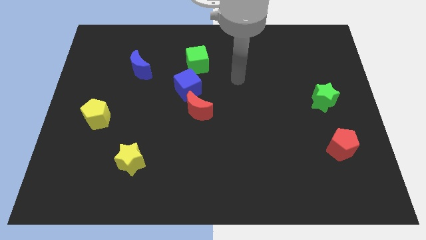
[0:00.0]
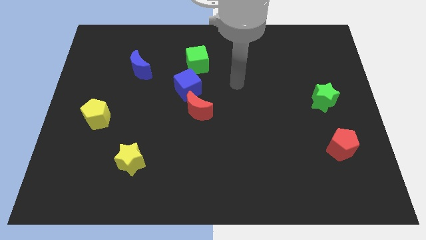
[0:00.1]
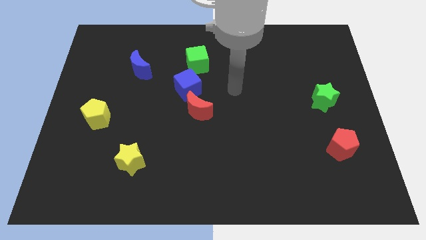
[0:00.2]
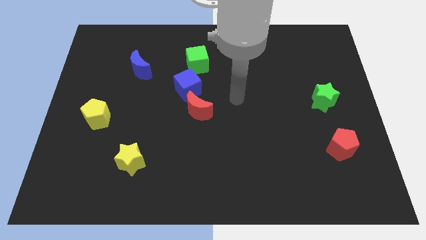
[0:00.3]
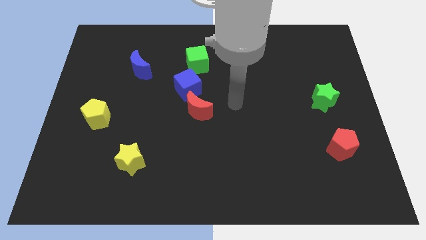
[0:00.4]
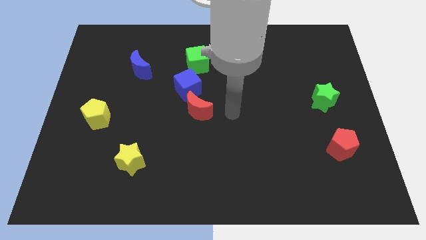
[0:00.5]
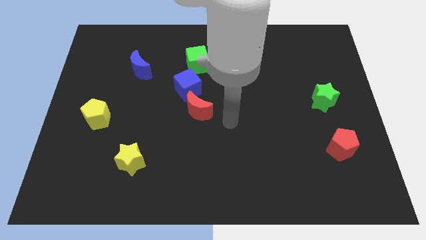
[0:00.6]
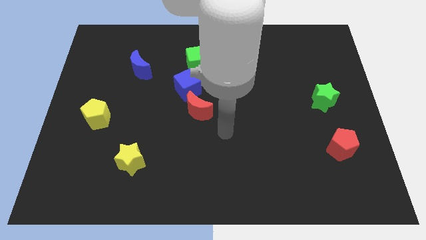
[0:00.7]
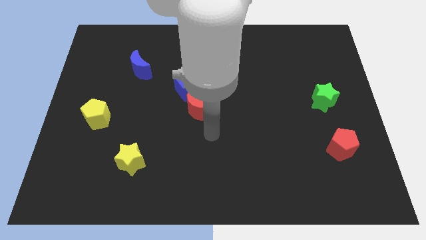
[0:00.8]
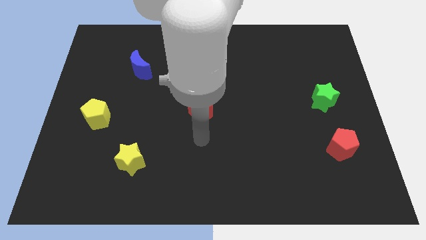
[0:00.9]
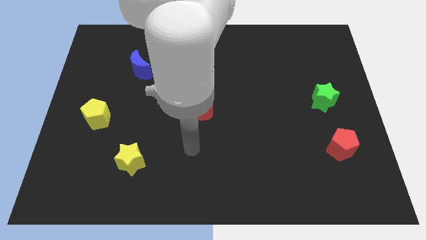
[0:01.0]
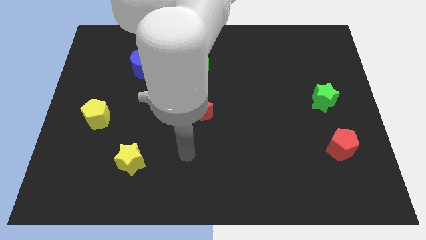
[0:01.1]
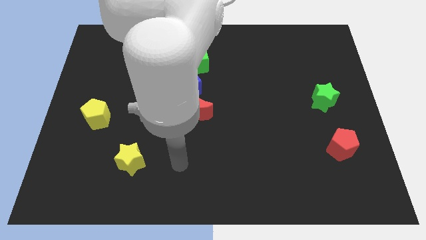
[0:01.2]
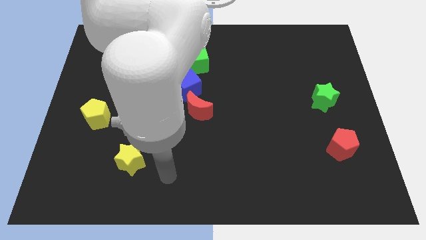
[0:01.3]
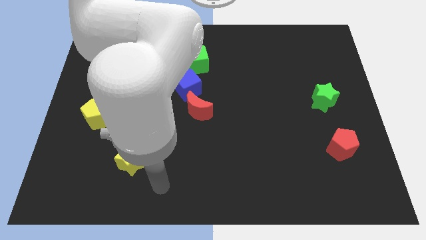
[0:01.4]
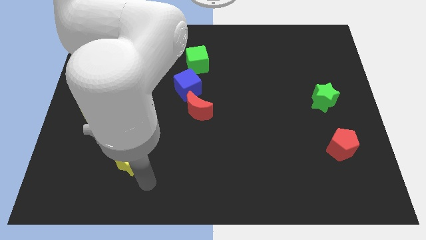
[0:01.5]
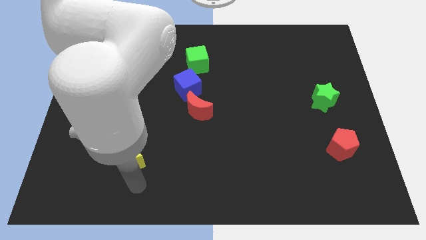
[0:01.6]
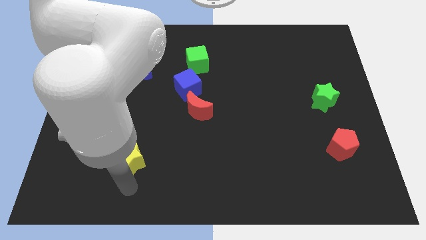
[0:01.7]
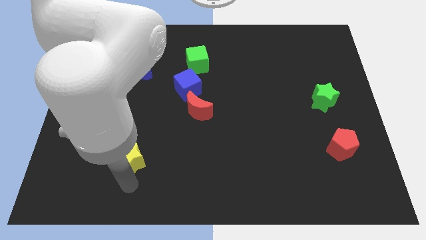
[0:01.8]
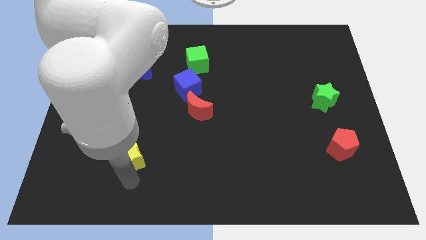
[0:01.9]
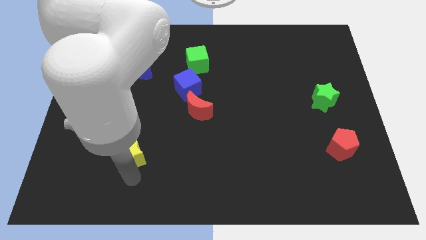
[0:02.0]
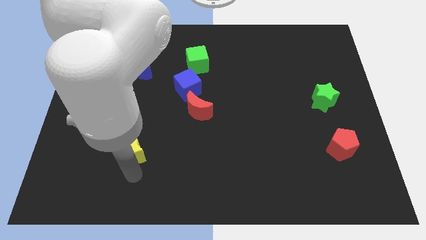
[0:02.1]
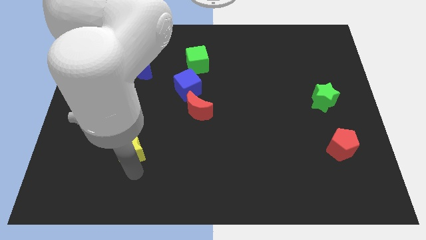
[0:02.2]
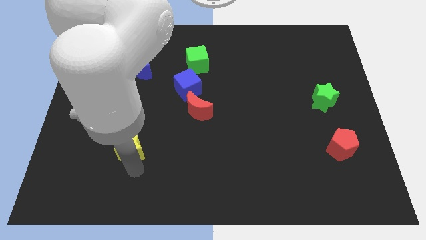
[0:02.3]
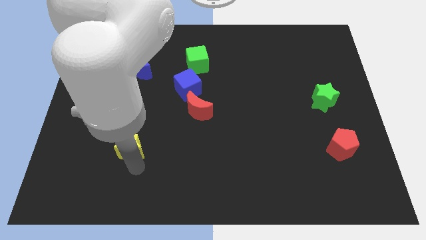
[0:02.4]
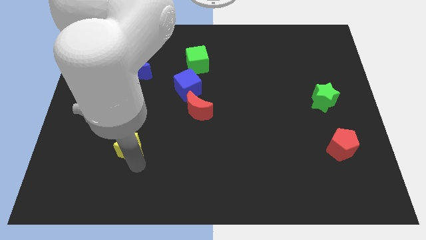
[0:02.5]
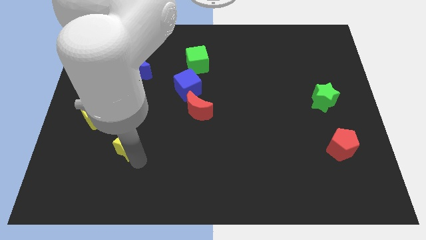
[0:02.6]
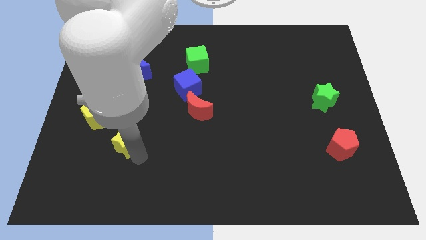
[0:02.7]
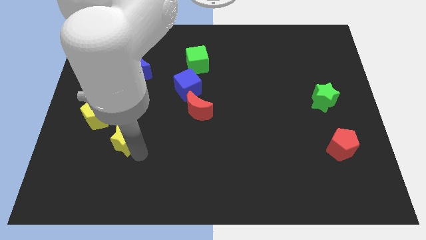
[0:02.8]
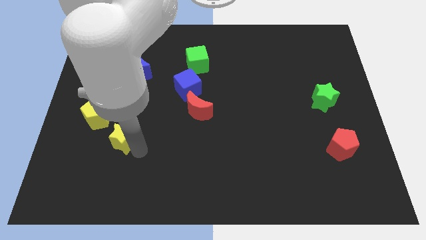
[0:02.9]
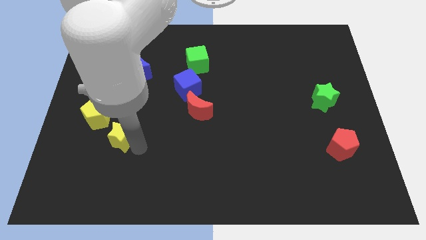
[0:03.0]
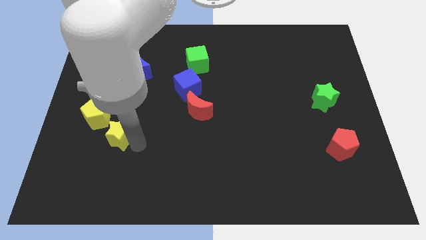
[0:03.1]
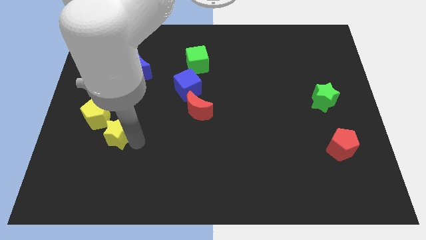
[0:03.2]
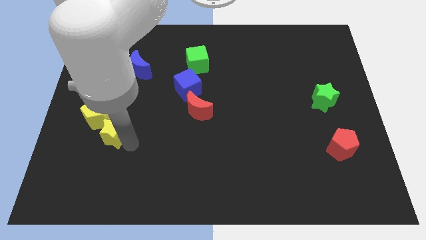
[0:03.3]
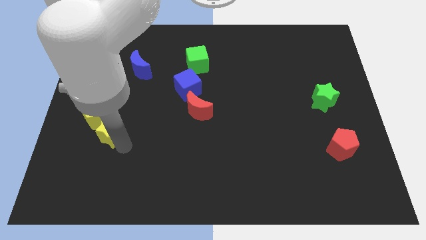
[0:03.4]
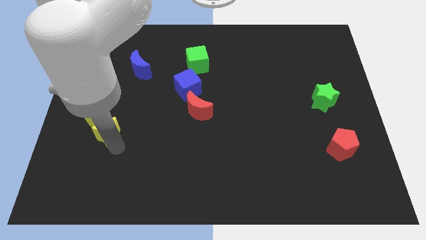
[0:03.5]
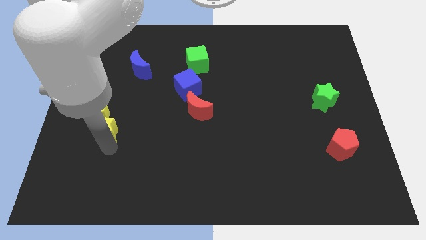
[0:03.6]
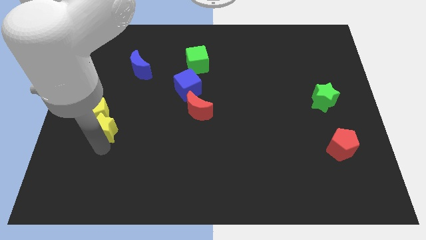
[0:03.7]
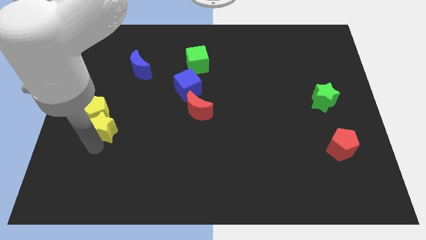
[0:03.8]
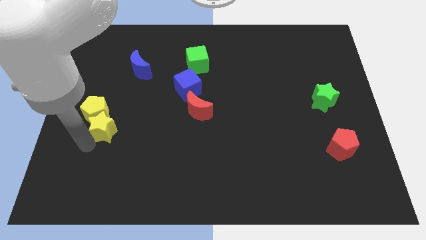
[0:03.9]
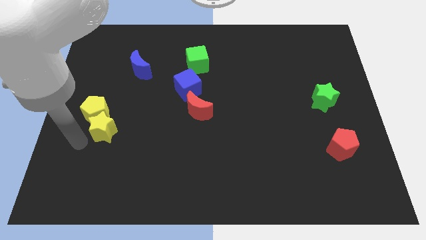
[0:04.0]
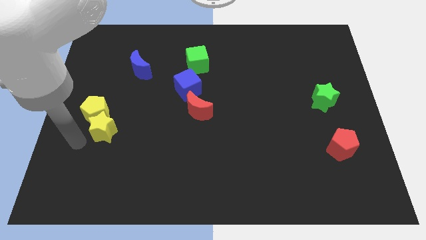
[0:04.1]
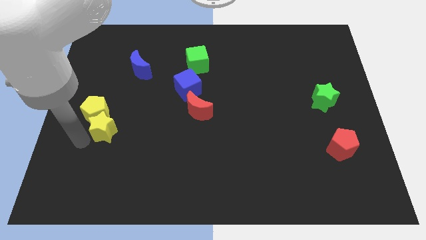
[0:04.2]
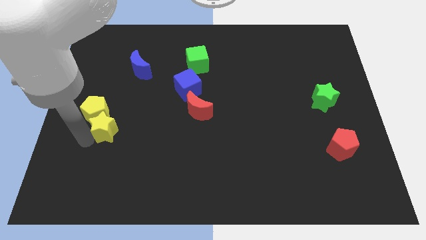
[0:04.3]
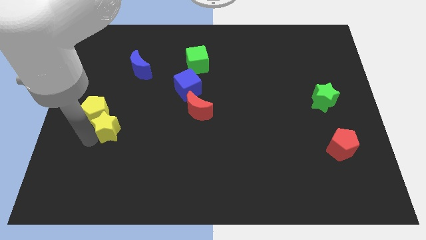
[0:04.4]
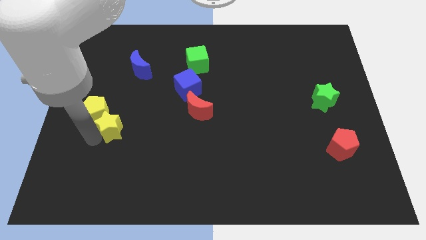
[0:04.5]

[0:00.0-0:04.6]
slightly move the yellow star upwards

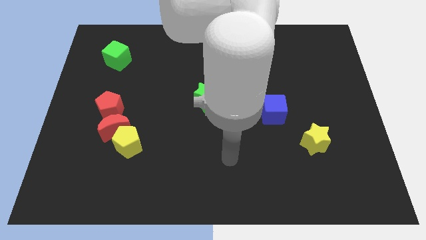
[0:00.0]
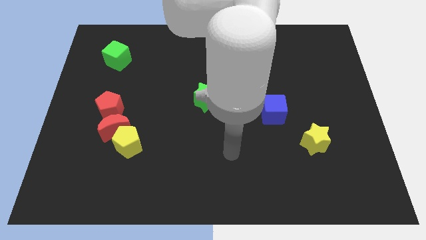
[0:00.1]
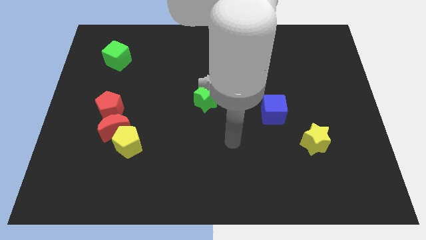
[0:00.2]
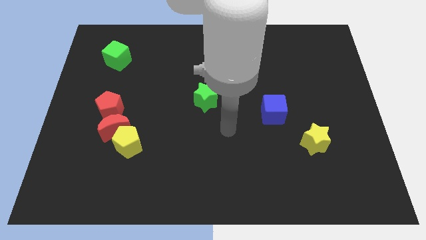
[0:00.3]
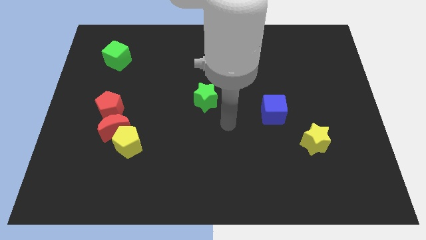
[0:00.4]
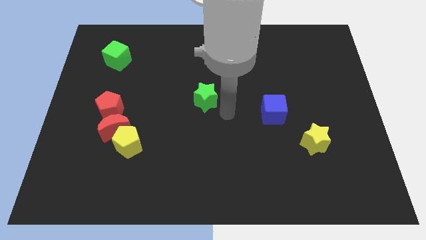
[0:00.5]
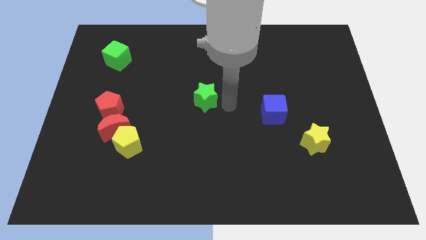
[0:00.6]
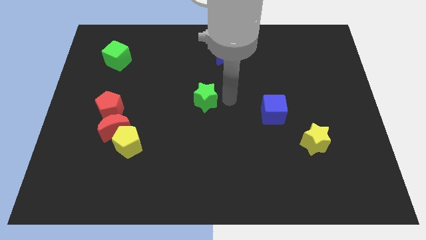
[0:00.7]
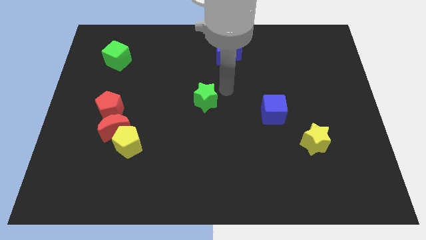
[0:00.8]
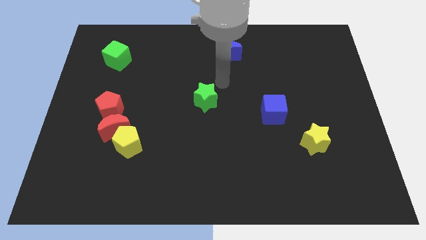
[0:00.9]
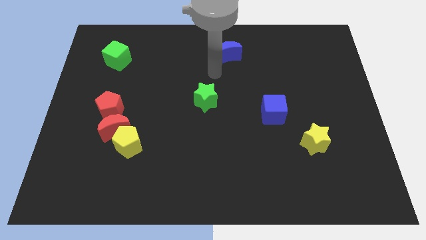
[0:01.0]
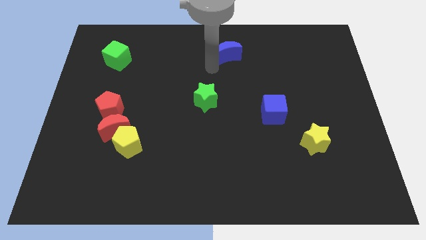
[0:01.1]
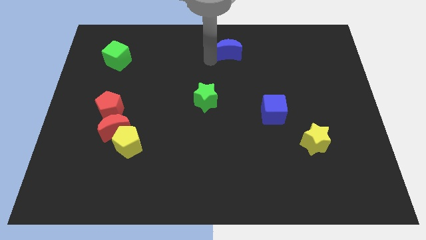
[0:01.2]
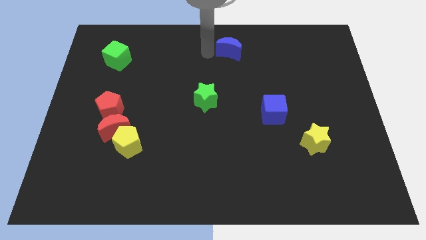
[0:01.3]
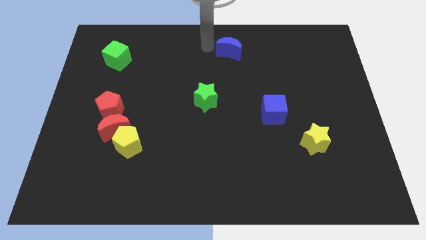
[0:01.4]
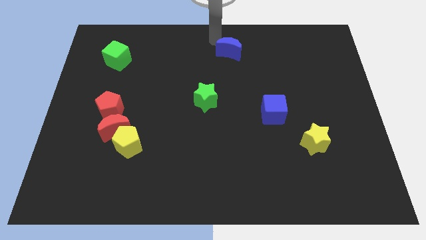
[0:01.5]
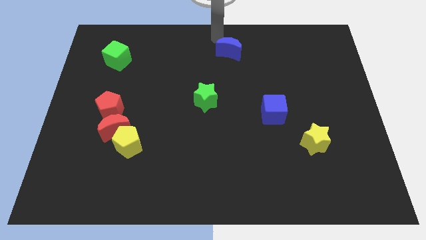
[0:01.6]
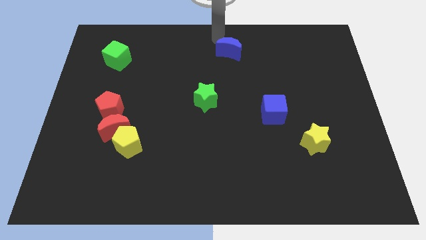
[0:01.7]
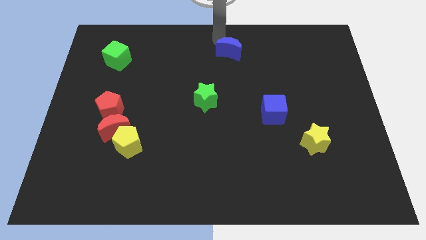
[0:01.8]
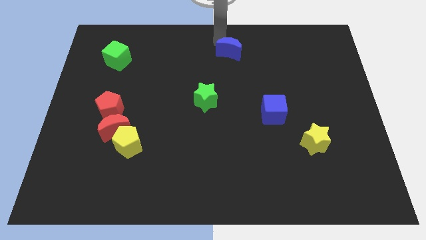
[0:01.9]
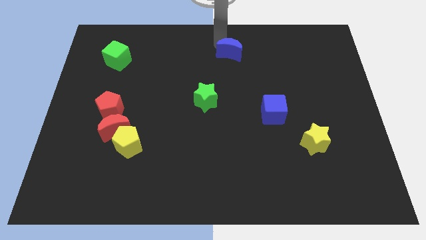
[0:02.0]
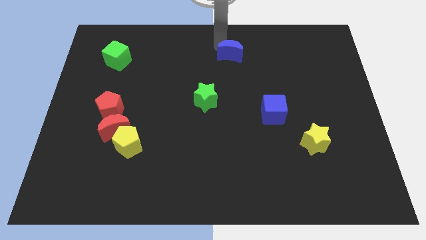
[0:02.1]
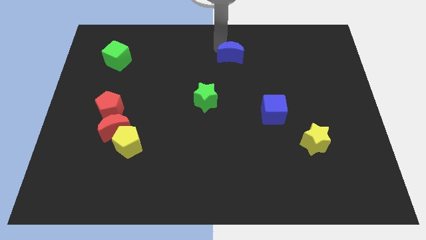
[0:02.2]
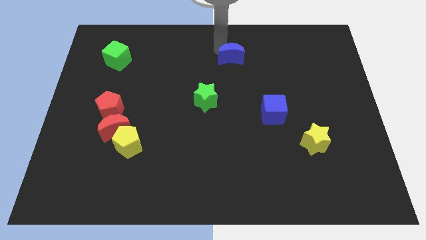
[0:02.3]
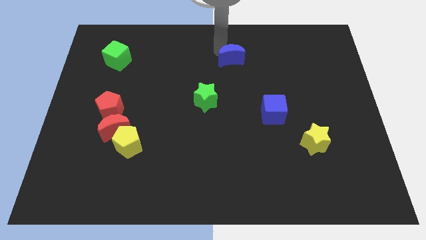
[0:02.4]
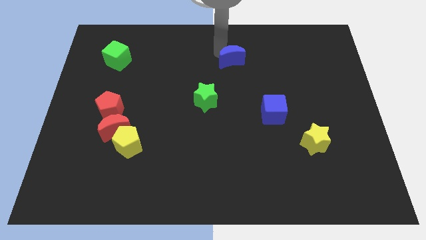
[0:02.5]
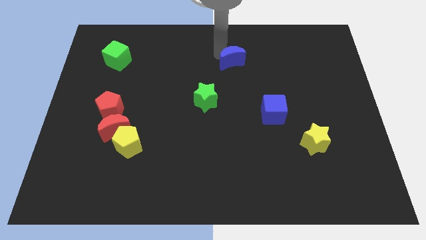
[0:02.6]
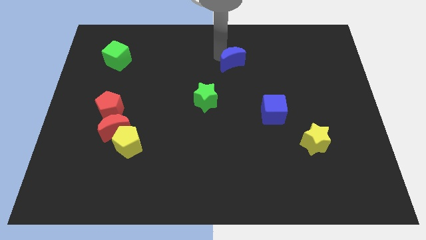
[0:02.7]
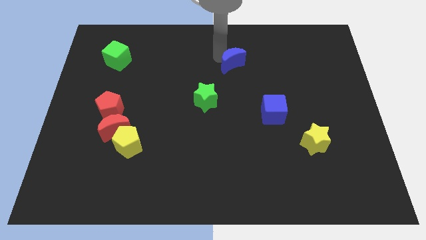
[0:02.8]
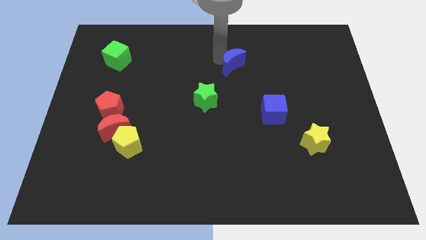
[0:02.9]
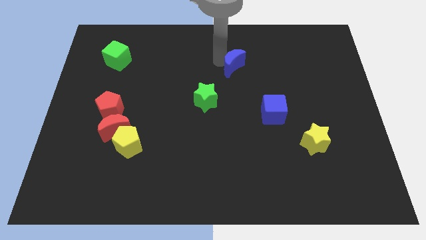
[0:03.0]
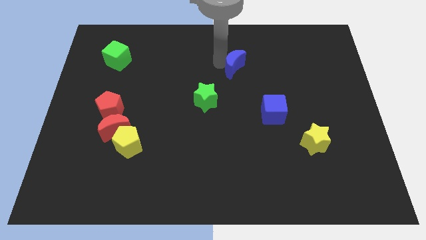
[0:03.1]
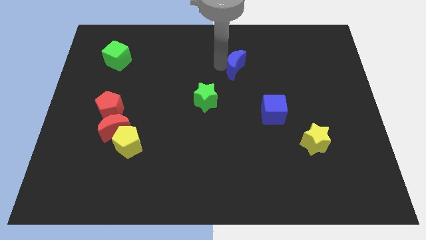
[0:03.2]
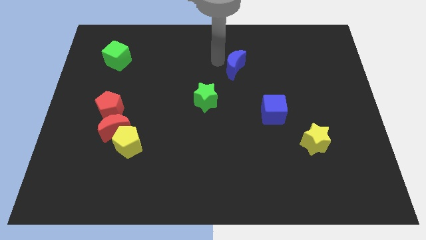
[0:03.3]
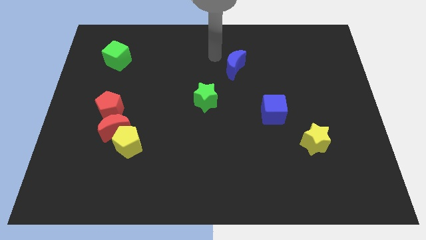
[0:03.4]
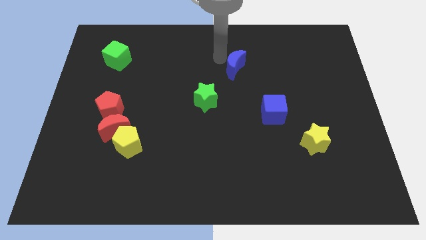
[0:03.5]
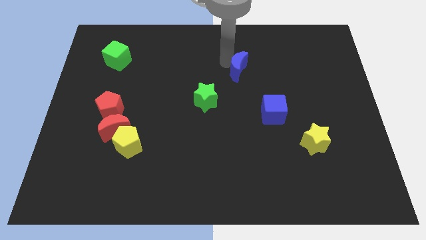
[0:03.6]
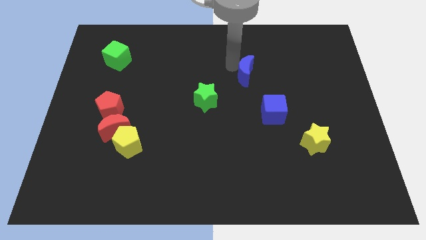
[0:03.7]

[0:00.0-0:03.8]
move the blue moon down and right a little bit
